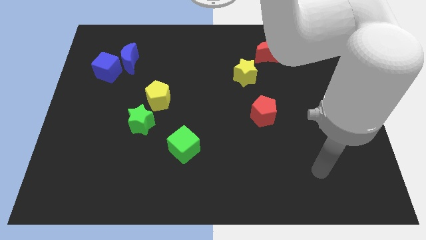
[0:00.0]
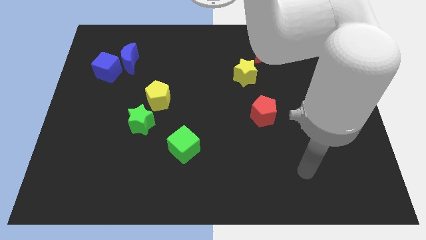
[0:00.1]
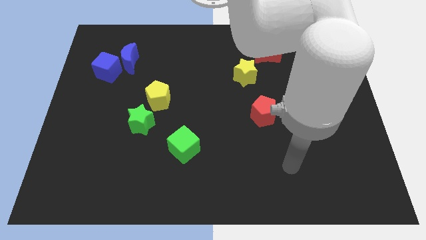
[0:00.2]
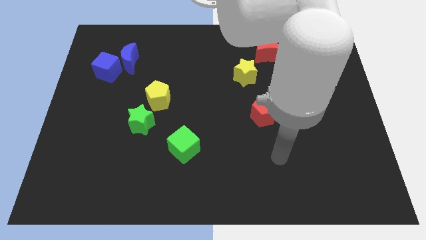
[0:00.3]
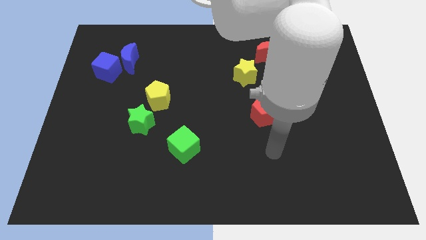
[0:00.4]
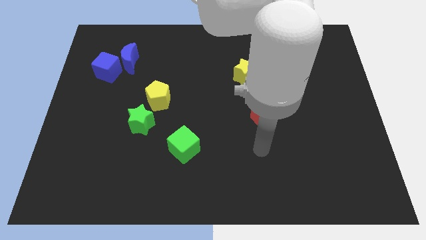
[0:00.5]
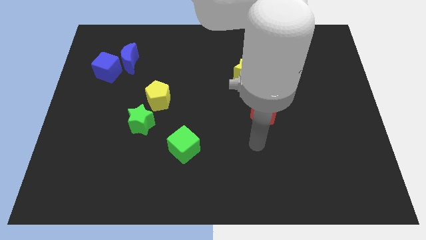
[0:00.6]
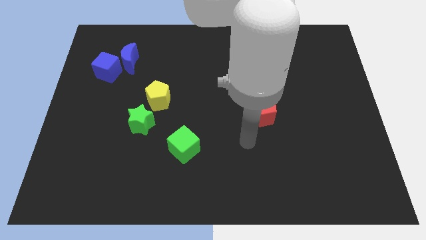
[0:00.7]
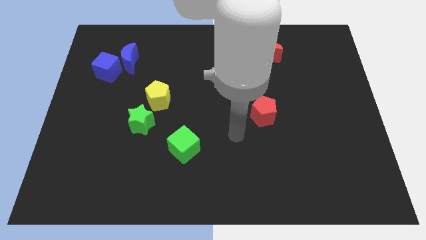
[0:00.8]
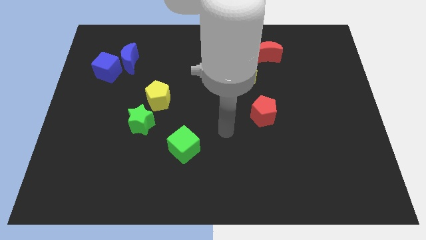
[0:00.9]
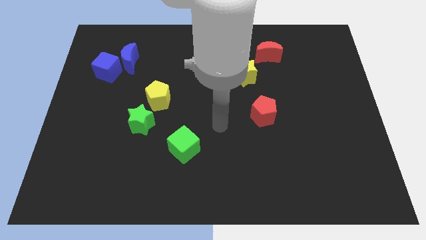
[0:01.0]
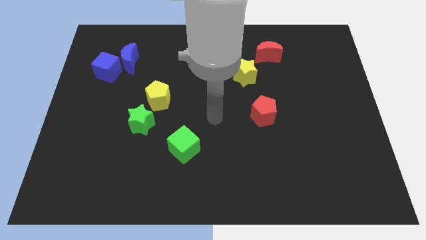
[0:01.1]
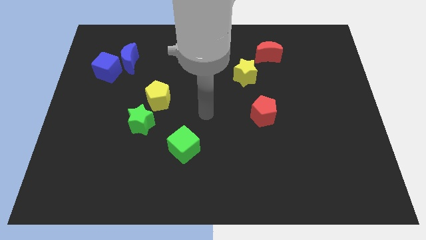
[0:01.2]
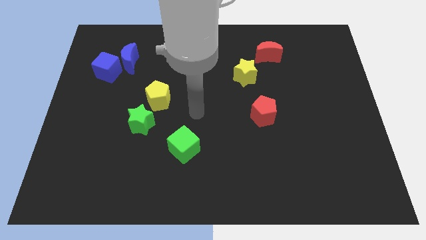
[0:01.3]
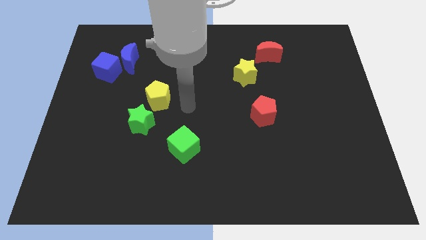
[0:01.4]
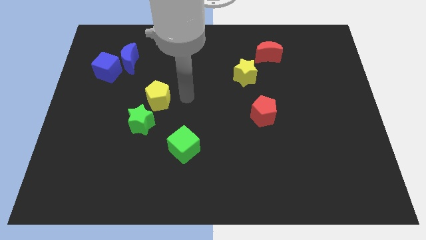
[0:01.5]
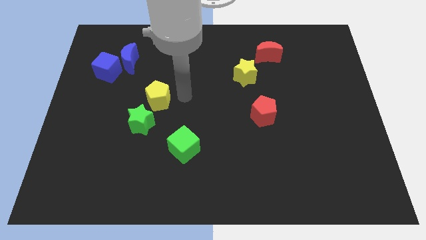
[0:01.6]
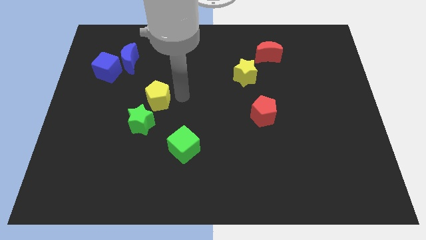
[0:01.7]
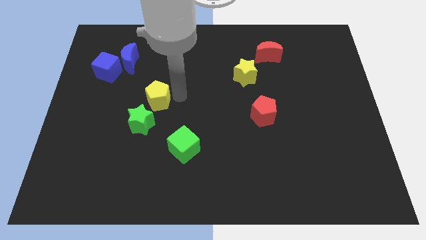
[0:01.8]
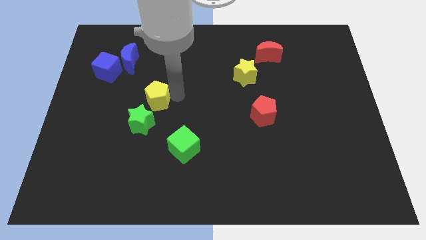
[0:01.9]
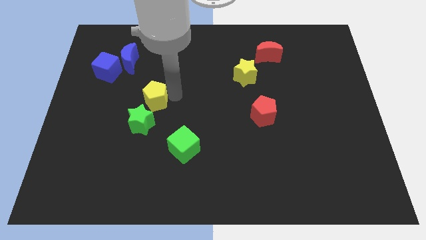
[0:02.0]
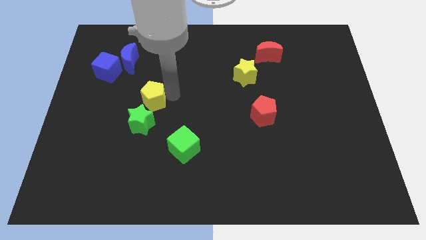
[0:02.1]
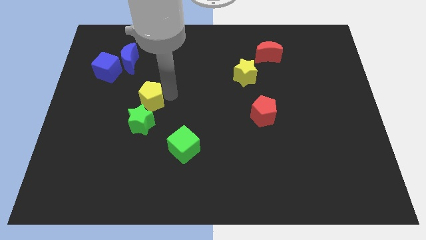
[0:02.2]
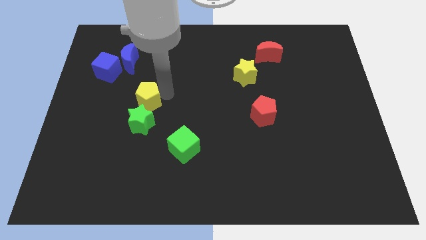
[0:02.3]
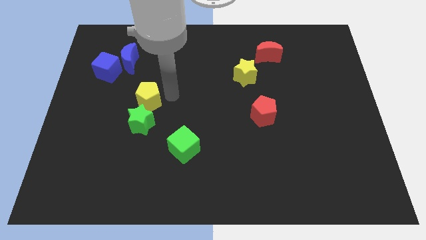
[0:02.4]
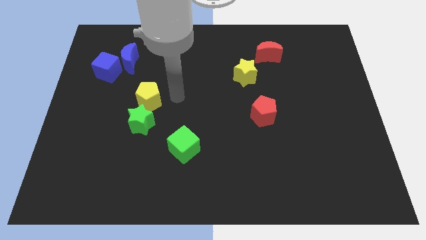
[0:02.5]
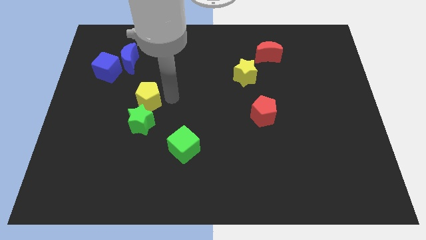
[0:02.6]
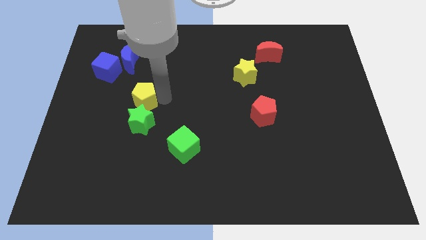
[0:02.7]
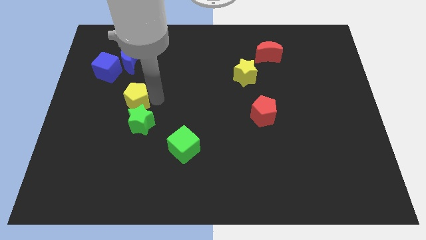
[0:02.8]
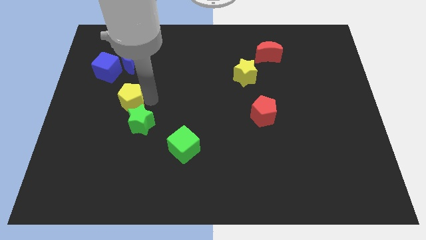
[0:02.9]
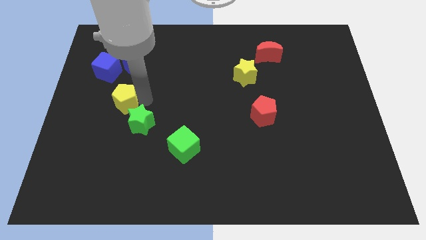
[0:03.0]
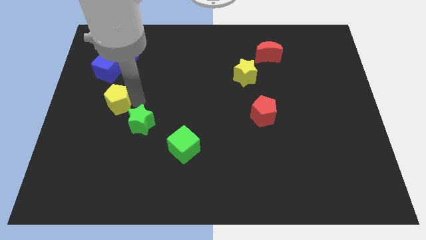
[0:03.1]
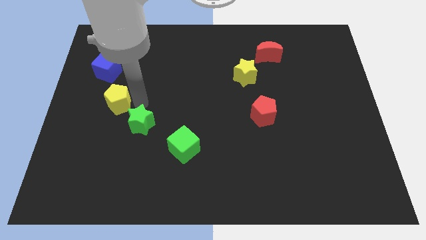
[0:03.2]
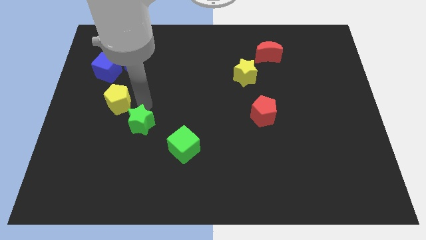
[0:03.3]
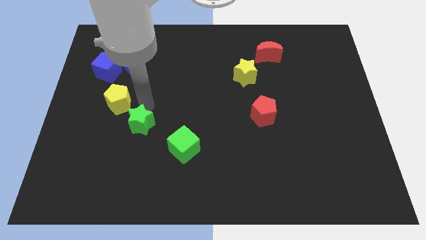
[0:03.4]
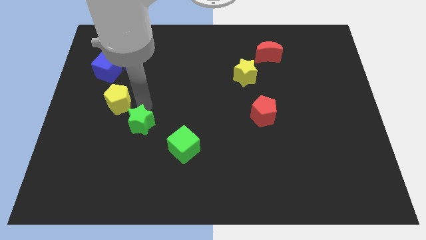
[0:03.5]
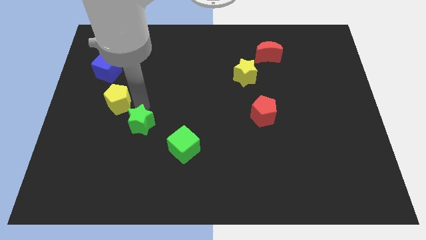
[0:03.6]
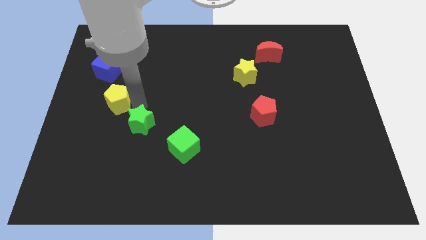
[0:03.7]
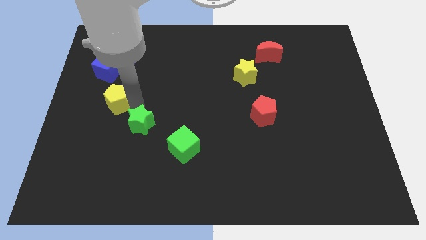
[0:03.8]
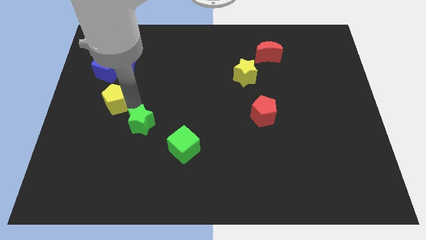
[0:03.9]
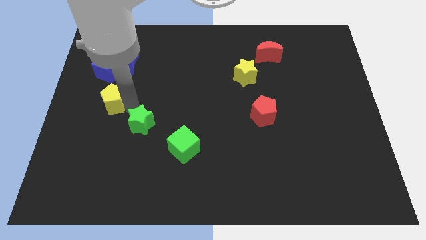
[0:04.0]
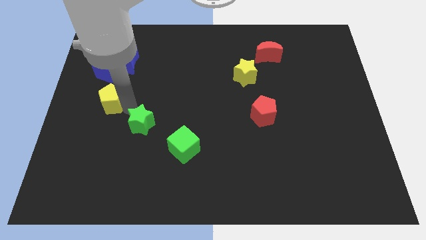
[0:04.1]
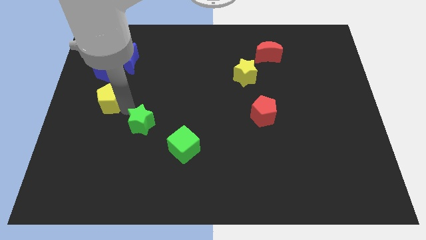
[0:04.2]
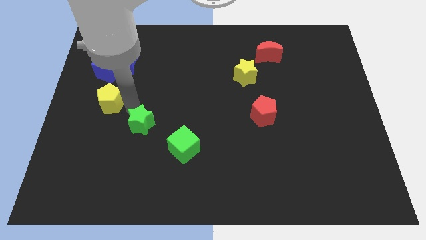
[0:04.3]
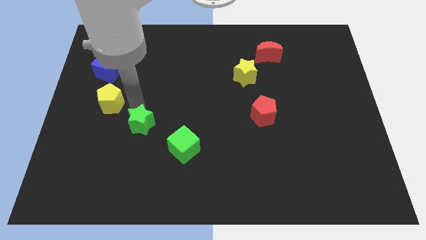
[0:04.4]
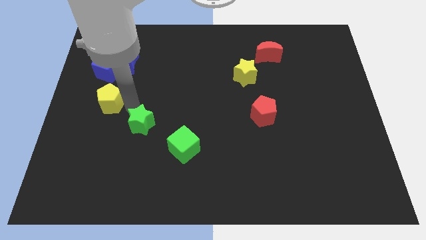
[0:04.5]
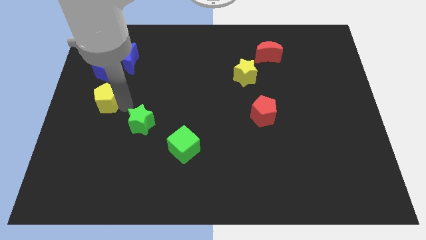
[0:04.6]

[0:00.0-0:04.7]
move the yellow pentagon to the left side of the board

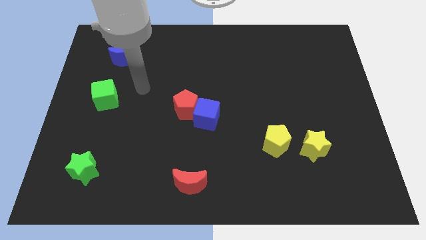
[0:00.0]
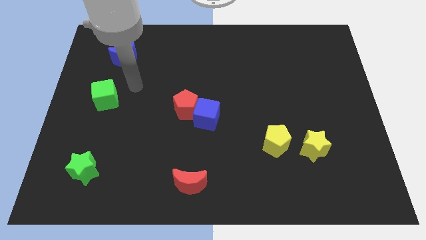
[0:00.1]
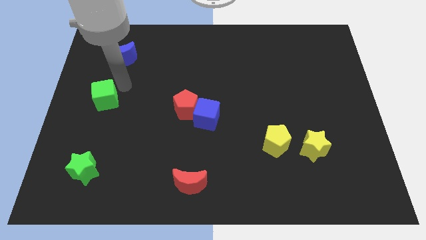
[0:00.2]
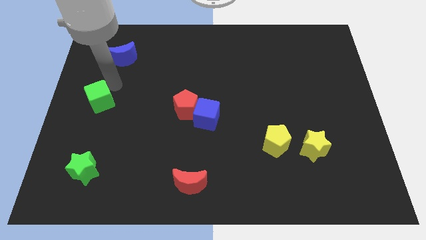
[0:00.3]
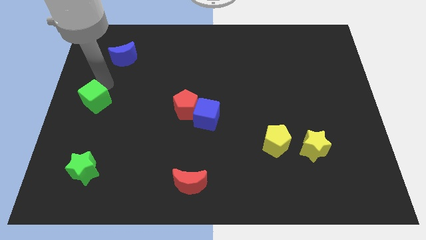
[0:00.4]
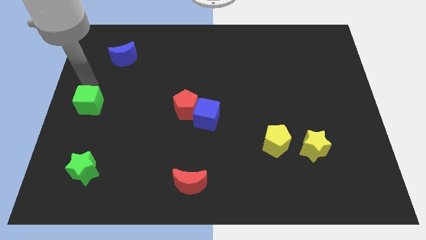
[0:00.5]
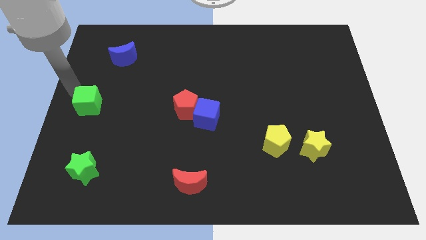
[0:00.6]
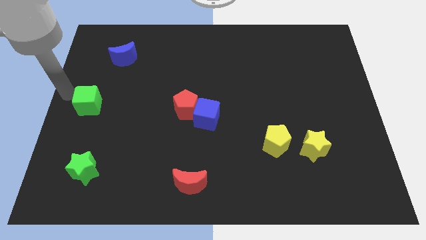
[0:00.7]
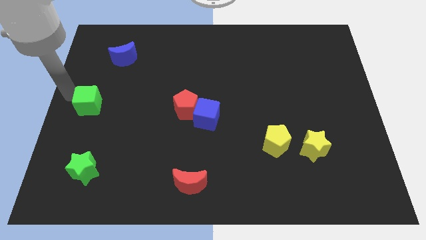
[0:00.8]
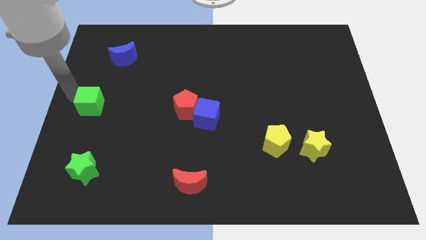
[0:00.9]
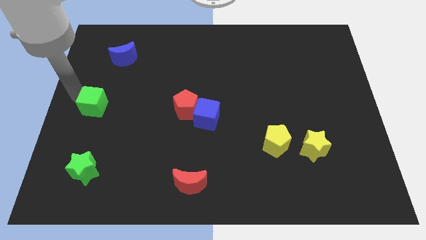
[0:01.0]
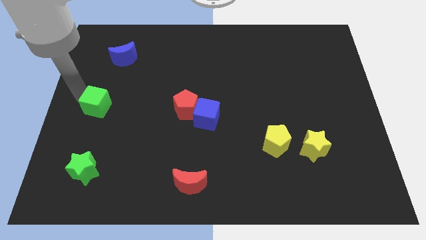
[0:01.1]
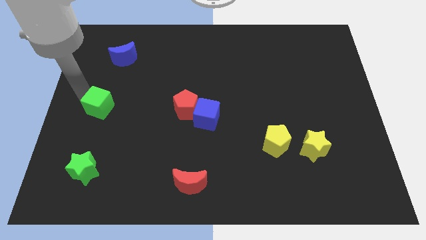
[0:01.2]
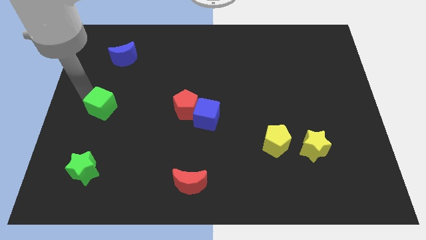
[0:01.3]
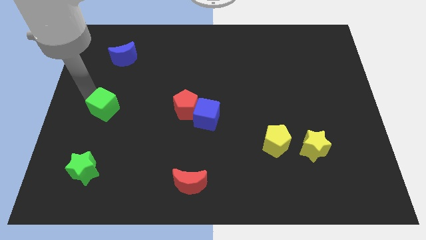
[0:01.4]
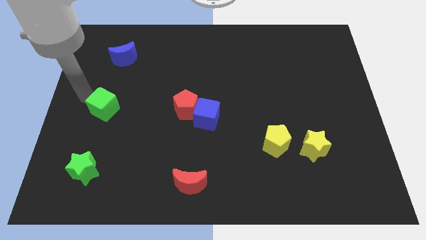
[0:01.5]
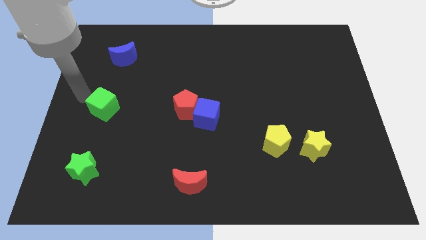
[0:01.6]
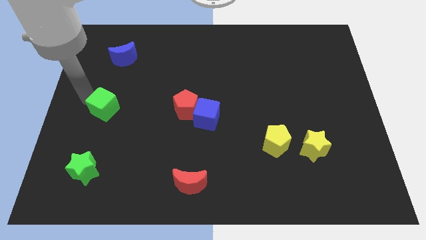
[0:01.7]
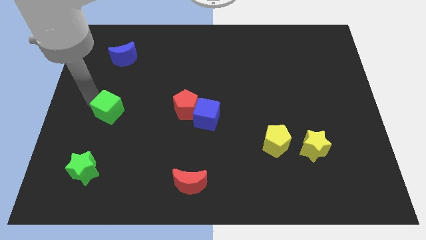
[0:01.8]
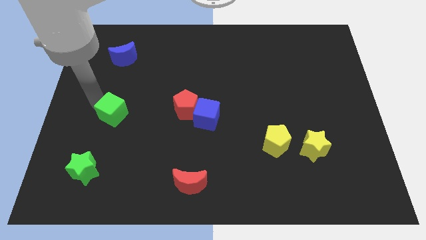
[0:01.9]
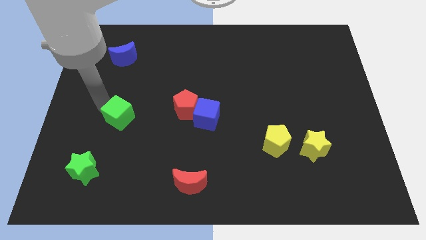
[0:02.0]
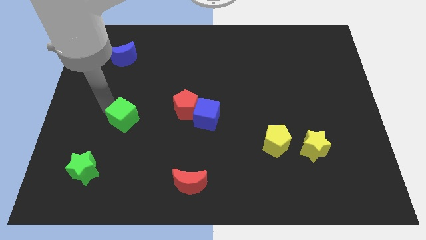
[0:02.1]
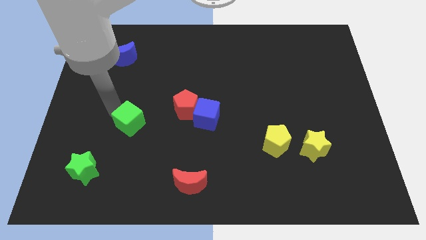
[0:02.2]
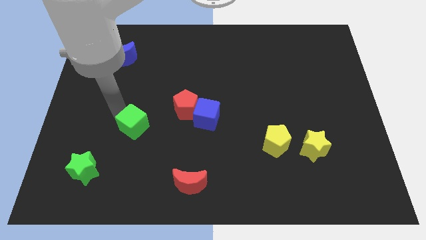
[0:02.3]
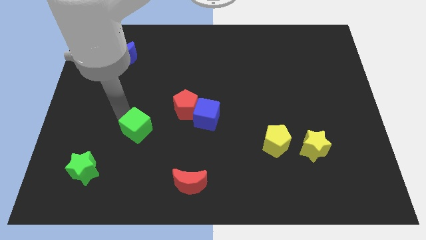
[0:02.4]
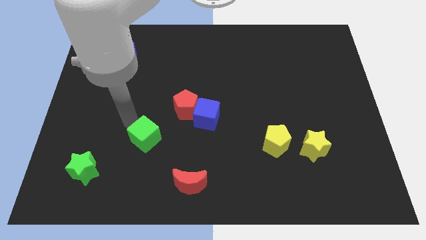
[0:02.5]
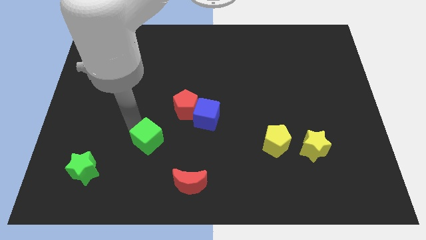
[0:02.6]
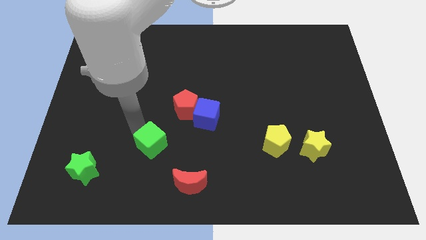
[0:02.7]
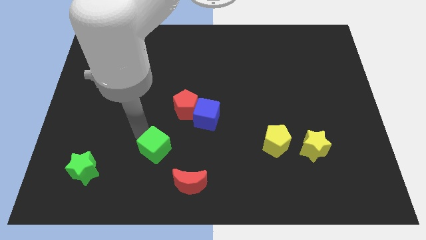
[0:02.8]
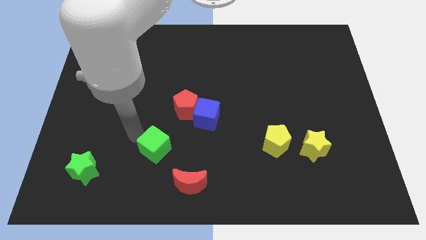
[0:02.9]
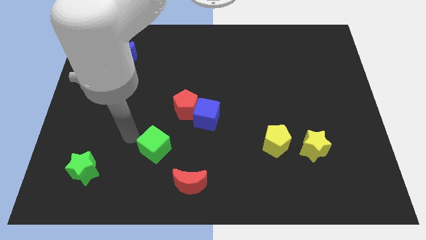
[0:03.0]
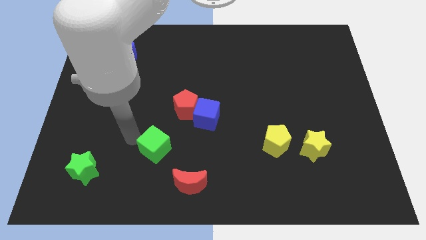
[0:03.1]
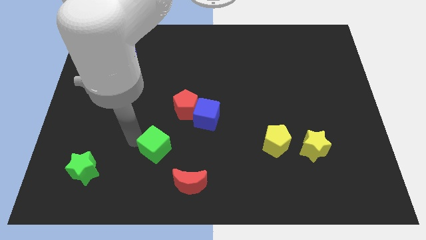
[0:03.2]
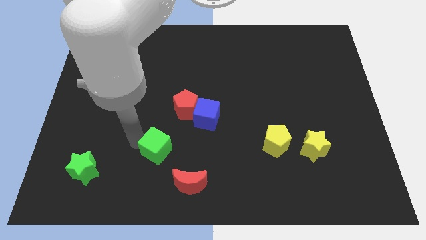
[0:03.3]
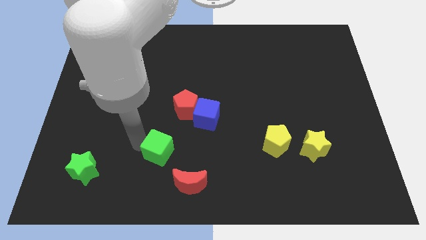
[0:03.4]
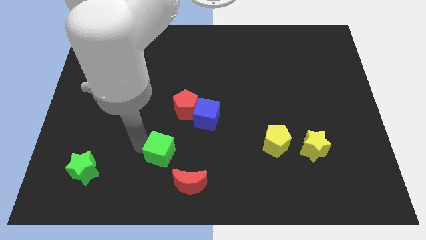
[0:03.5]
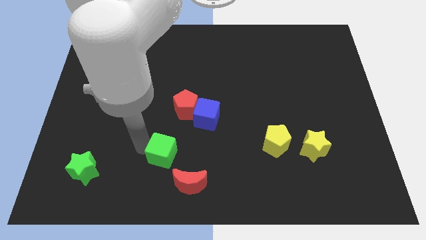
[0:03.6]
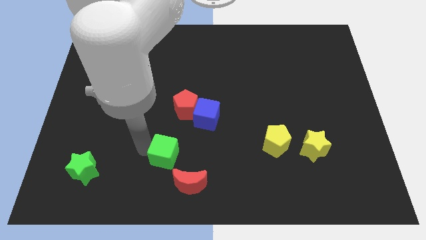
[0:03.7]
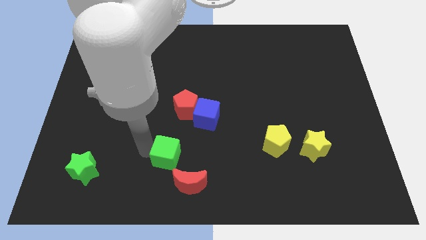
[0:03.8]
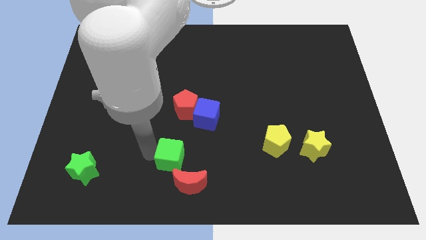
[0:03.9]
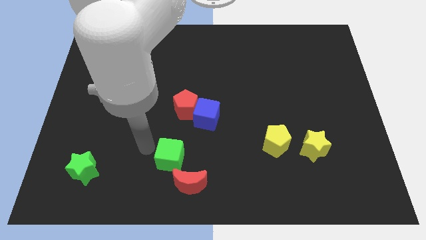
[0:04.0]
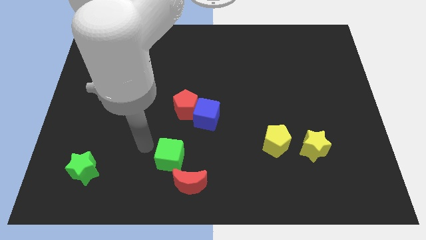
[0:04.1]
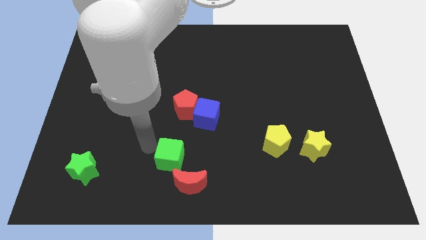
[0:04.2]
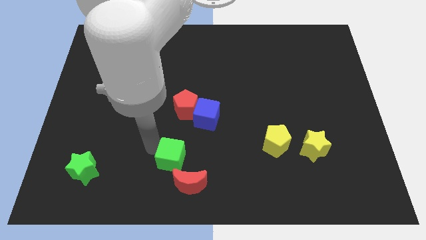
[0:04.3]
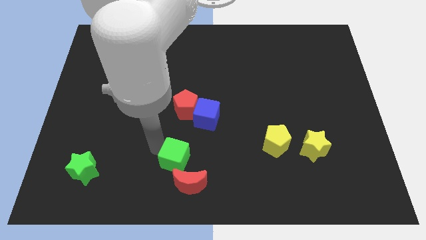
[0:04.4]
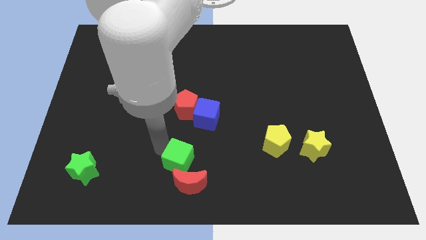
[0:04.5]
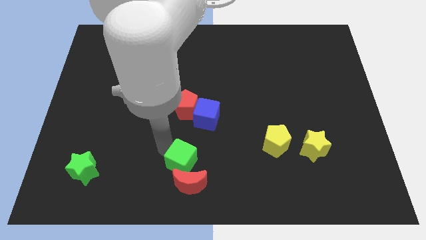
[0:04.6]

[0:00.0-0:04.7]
push the green cube to the bottom side
